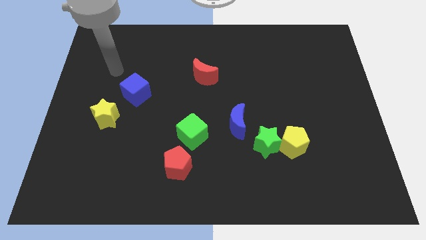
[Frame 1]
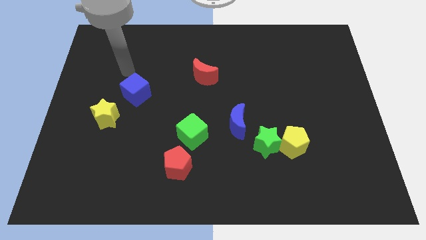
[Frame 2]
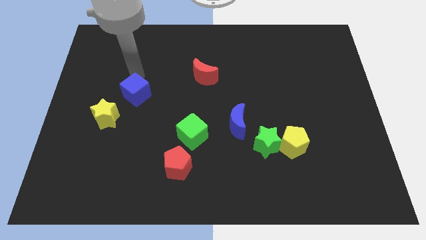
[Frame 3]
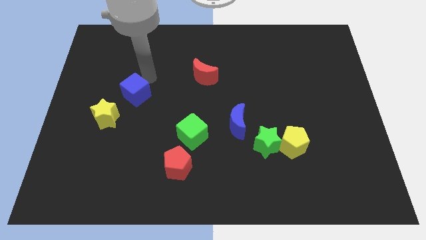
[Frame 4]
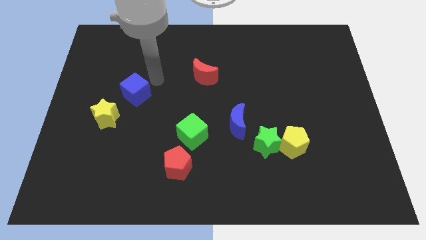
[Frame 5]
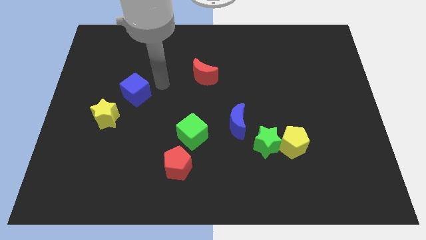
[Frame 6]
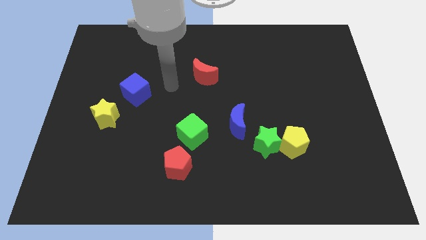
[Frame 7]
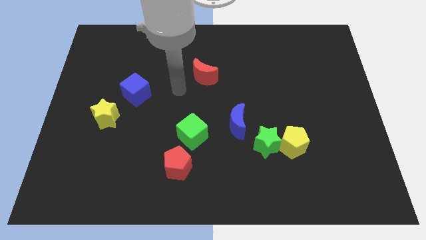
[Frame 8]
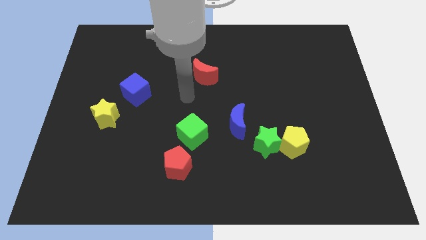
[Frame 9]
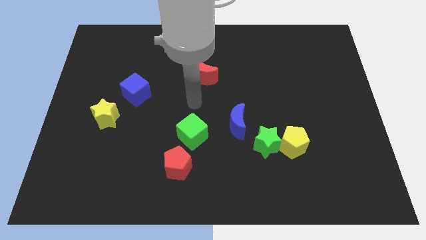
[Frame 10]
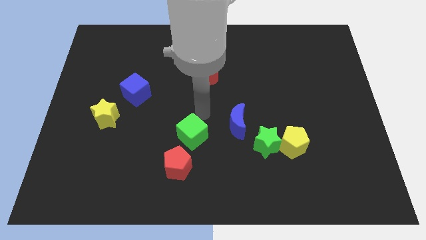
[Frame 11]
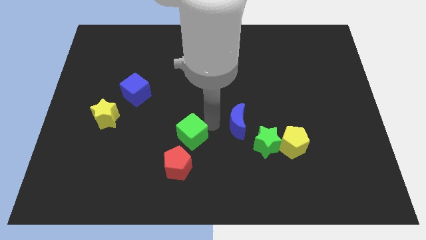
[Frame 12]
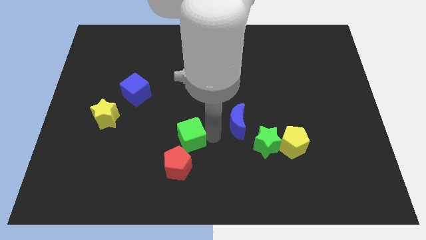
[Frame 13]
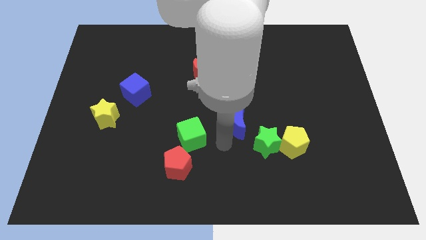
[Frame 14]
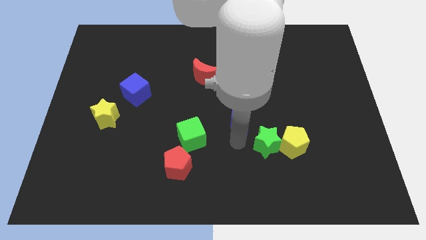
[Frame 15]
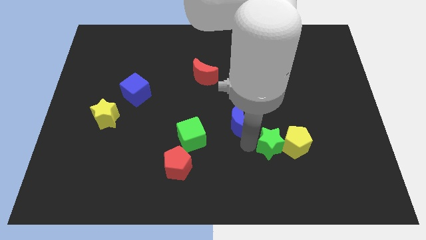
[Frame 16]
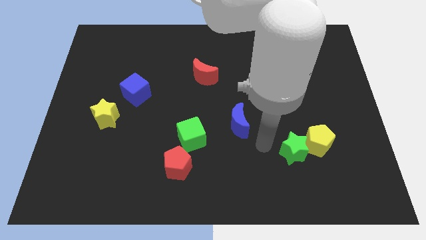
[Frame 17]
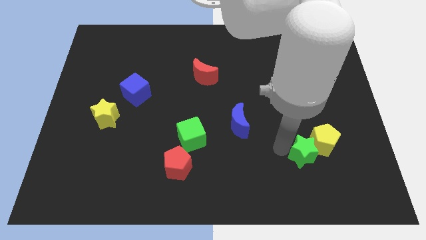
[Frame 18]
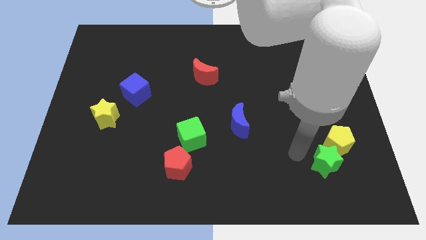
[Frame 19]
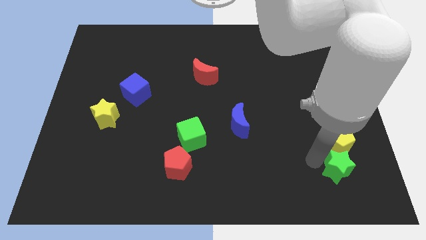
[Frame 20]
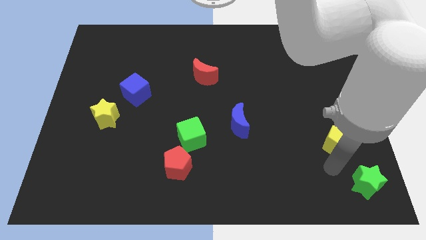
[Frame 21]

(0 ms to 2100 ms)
move the yellow pentagon away from the green star

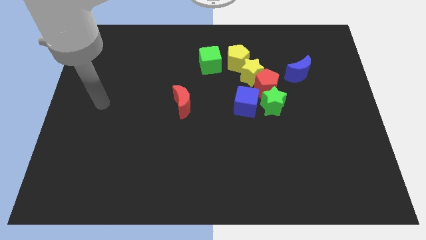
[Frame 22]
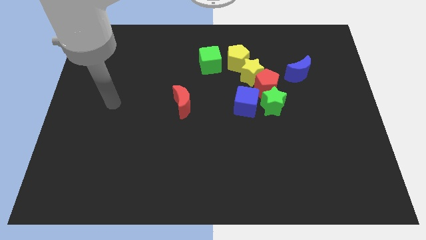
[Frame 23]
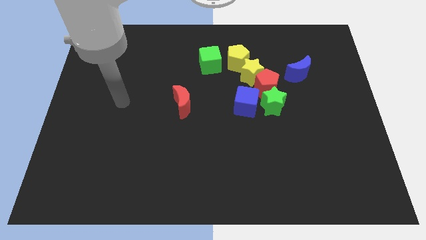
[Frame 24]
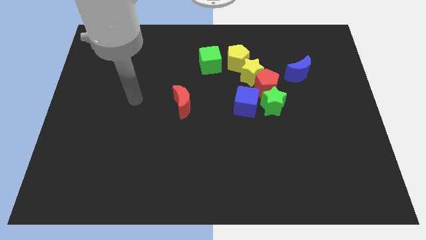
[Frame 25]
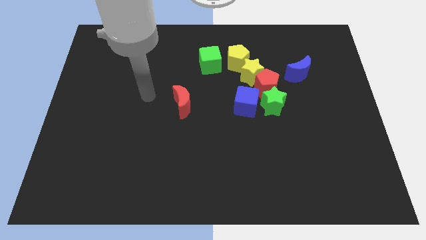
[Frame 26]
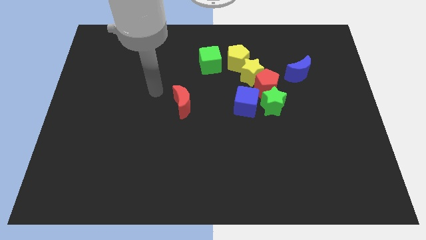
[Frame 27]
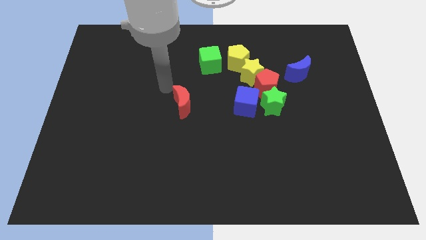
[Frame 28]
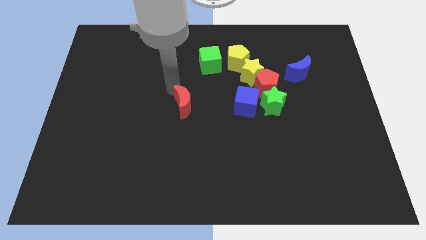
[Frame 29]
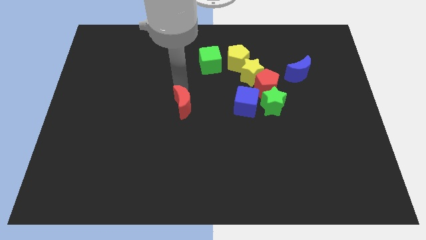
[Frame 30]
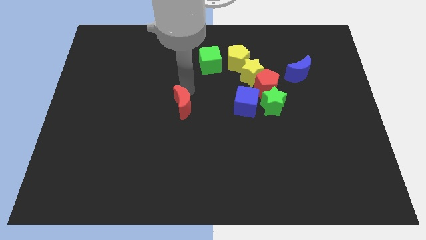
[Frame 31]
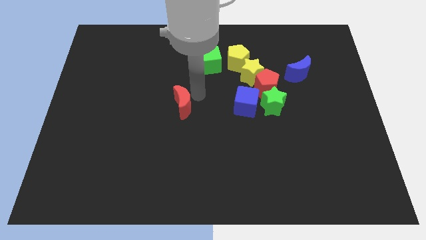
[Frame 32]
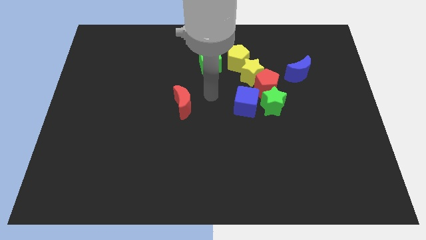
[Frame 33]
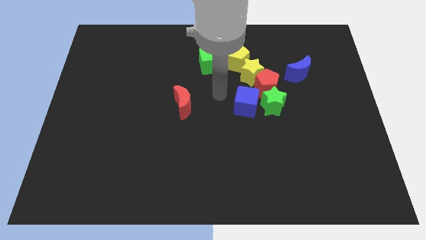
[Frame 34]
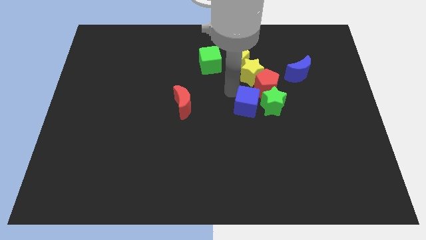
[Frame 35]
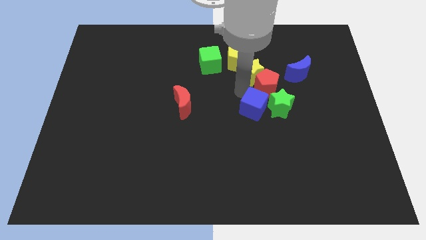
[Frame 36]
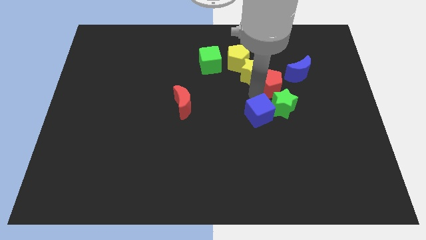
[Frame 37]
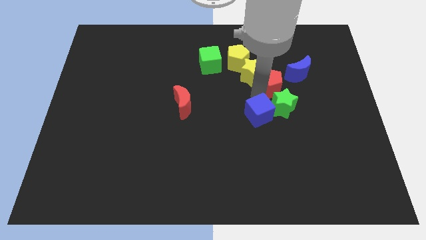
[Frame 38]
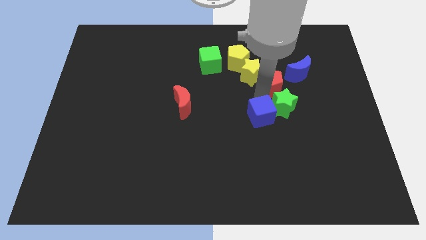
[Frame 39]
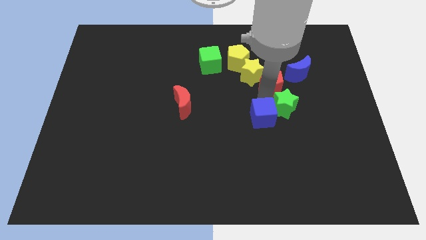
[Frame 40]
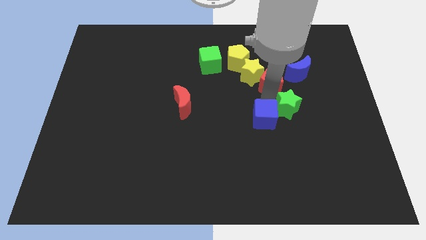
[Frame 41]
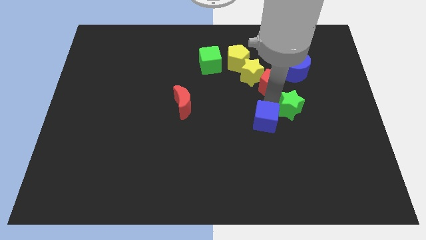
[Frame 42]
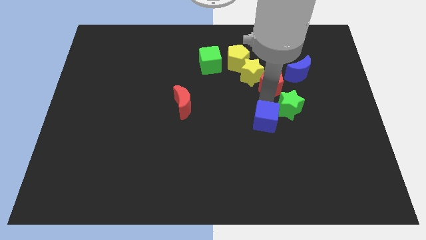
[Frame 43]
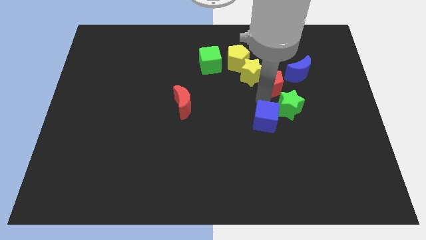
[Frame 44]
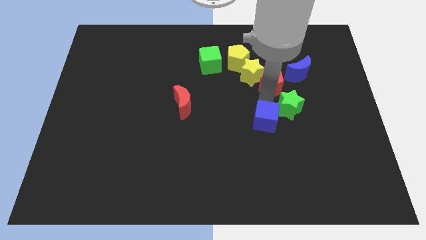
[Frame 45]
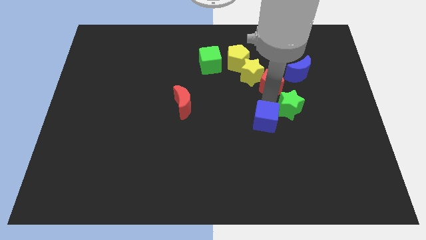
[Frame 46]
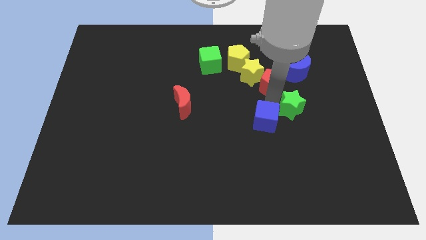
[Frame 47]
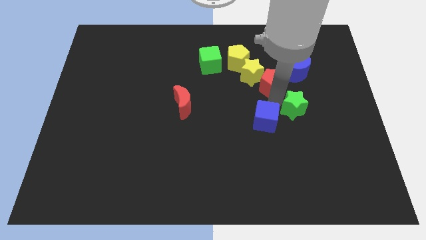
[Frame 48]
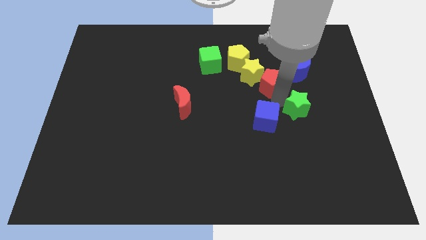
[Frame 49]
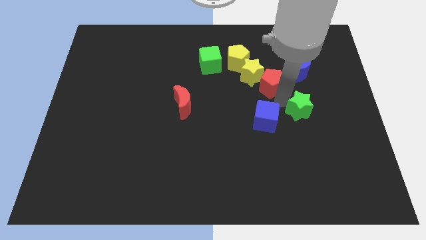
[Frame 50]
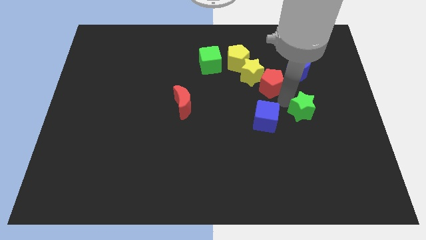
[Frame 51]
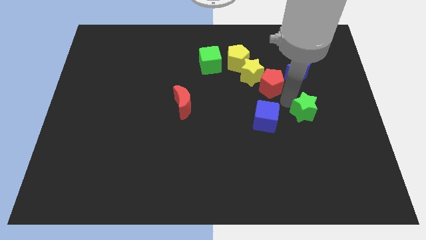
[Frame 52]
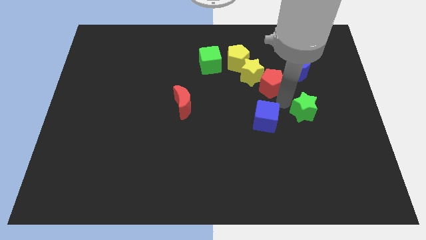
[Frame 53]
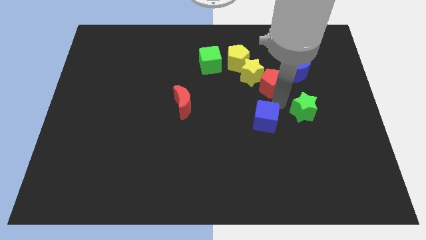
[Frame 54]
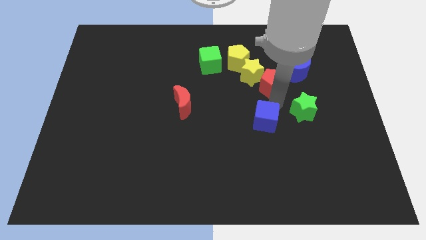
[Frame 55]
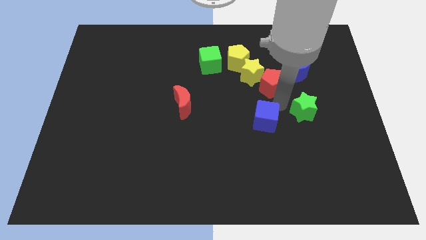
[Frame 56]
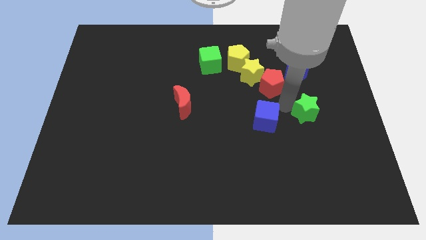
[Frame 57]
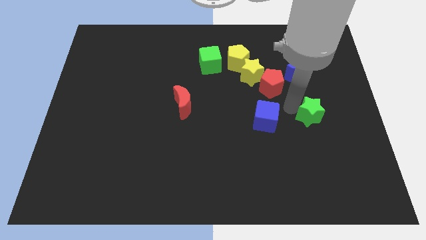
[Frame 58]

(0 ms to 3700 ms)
move the green star away from the red pentagon and blue cube

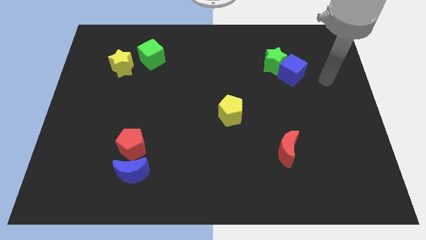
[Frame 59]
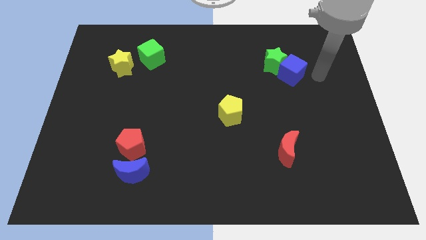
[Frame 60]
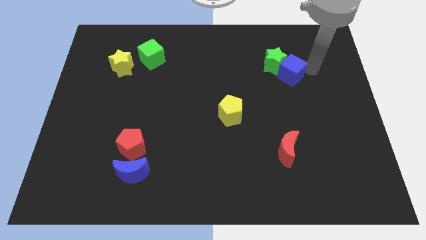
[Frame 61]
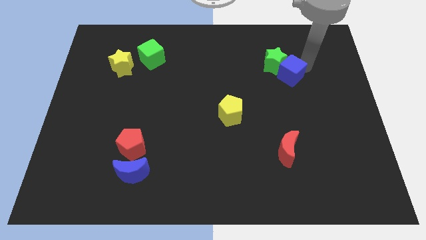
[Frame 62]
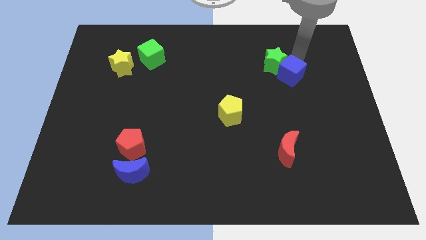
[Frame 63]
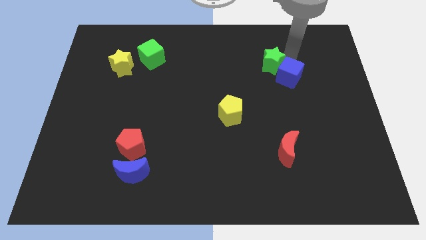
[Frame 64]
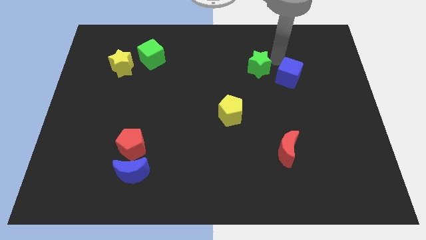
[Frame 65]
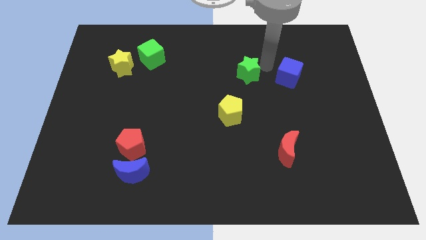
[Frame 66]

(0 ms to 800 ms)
pull the blue cube apart from the green star

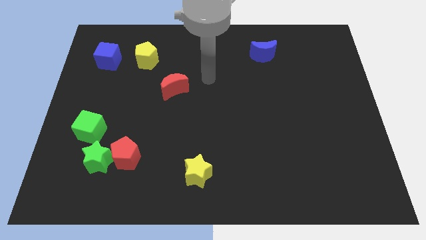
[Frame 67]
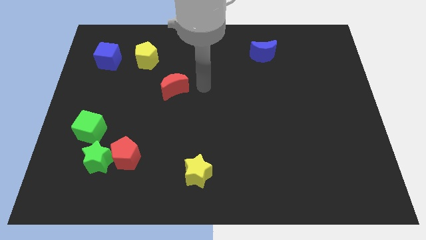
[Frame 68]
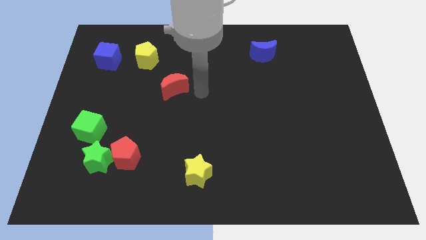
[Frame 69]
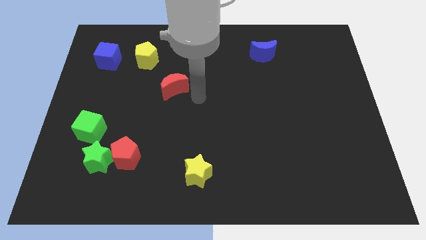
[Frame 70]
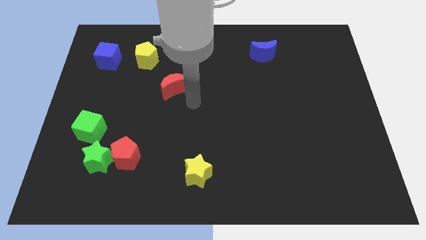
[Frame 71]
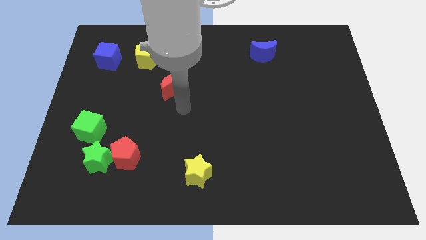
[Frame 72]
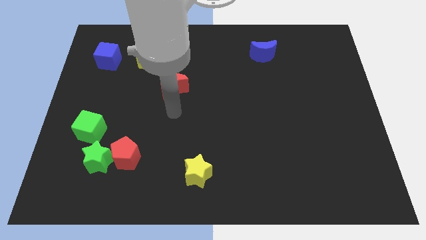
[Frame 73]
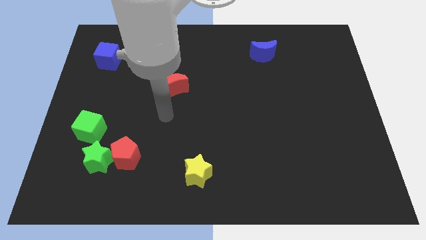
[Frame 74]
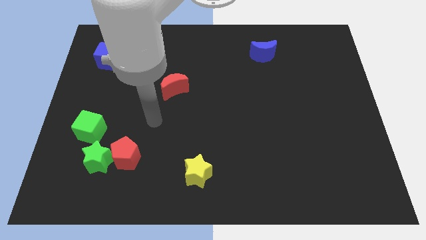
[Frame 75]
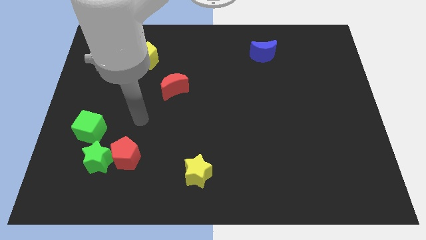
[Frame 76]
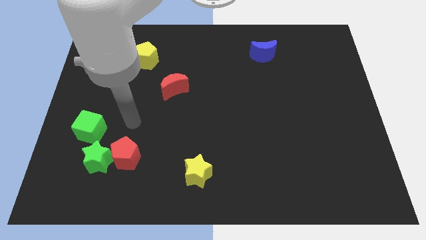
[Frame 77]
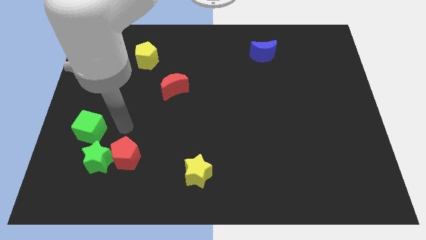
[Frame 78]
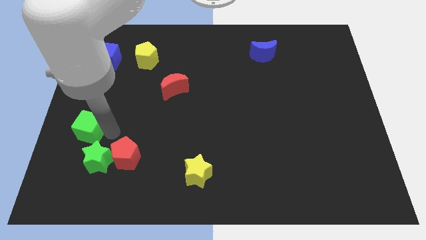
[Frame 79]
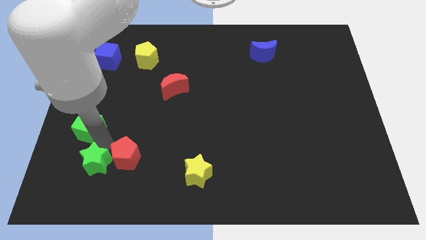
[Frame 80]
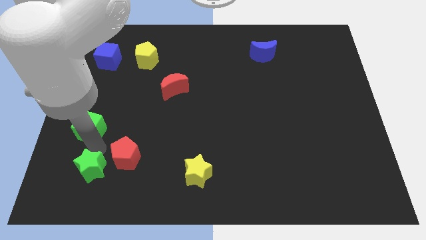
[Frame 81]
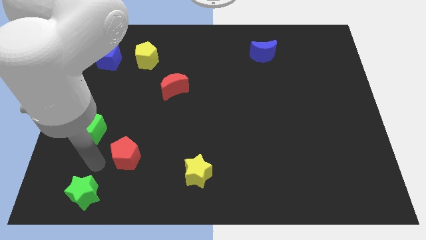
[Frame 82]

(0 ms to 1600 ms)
move the red pentagon away from the green star

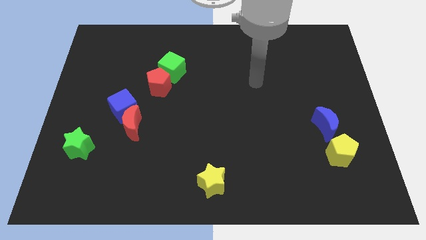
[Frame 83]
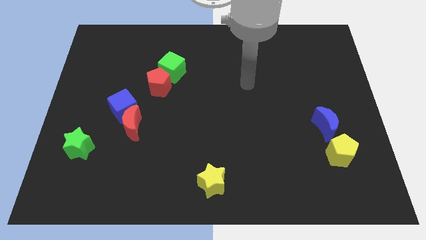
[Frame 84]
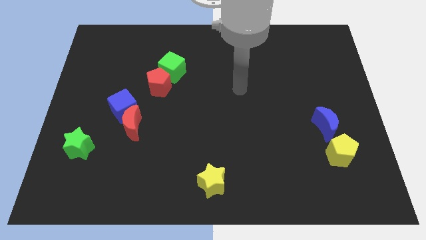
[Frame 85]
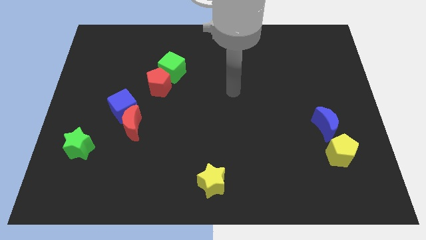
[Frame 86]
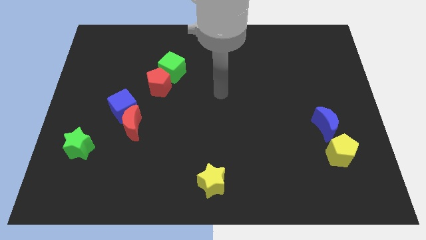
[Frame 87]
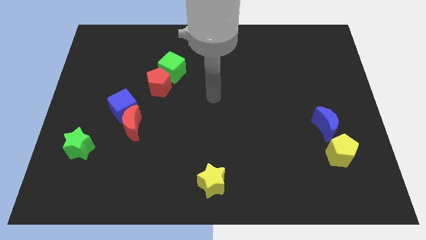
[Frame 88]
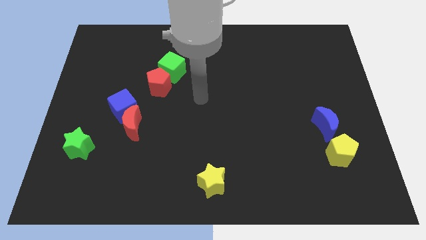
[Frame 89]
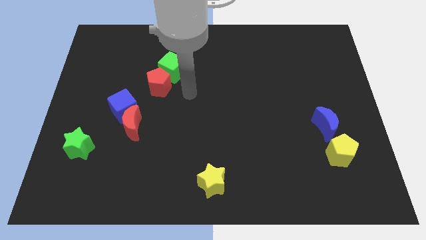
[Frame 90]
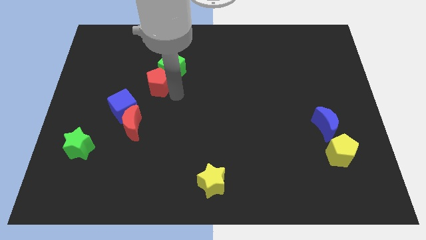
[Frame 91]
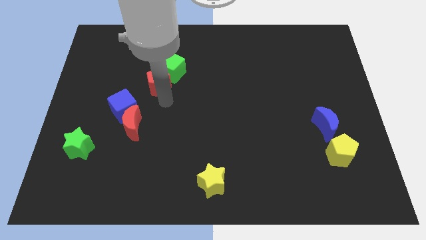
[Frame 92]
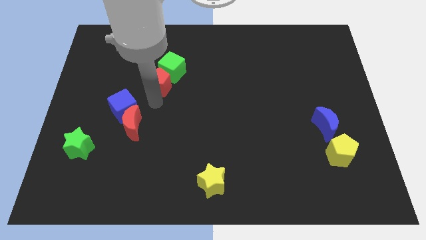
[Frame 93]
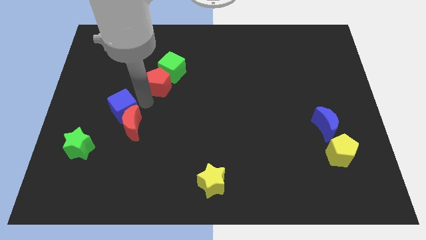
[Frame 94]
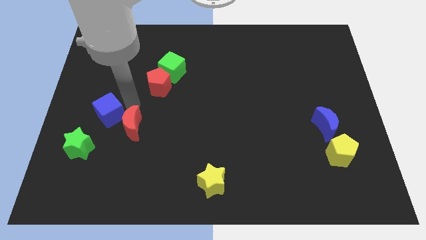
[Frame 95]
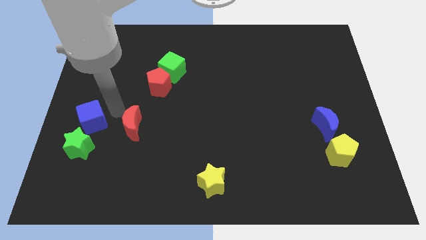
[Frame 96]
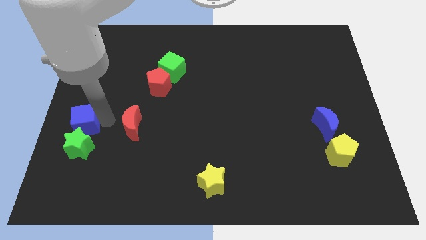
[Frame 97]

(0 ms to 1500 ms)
move the red moon away from the blue cube
